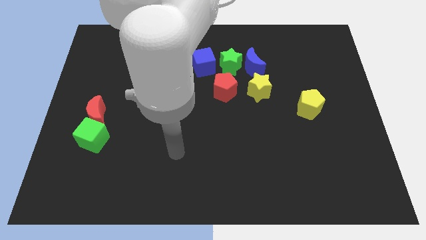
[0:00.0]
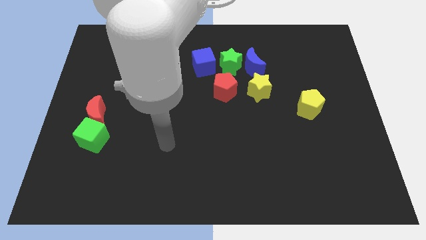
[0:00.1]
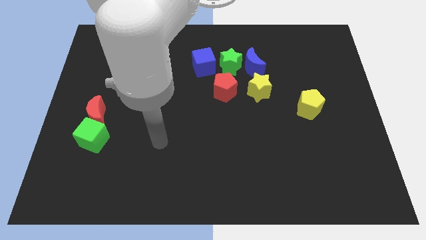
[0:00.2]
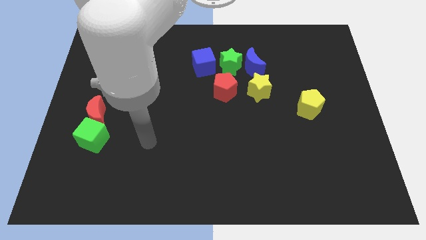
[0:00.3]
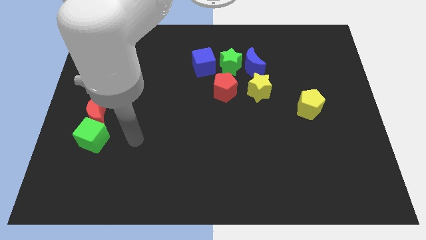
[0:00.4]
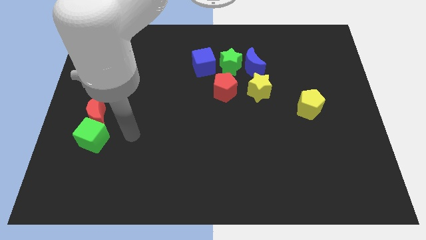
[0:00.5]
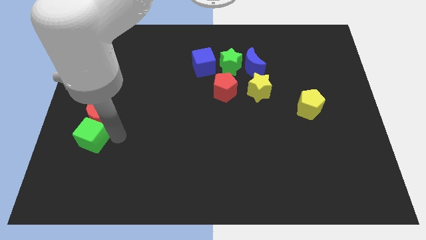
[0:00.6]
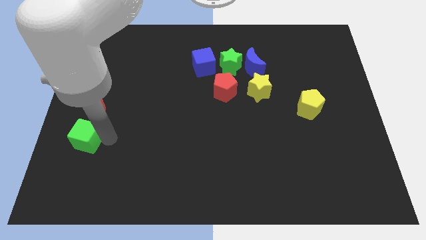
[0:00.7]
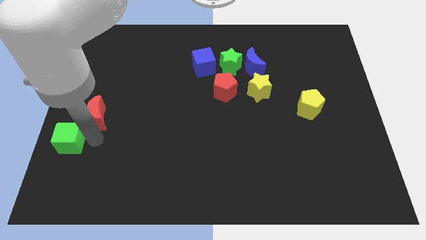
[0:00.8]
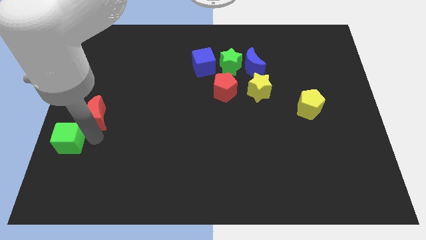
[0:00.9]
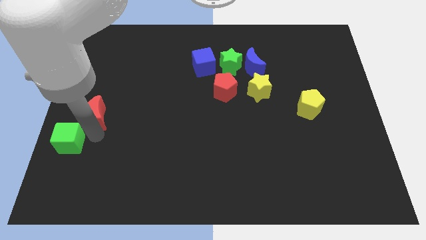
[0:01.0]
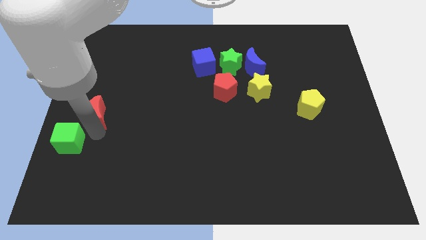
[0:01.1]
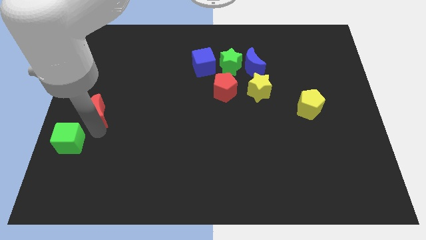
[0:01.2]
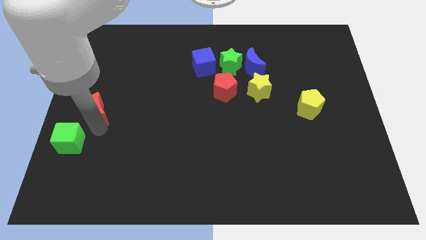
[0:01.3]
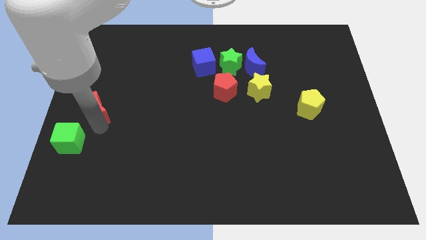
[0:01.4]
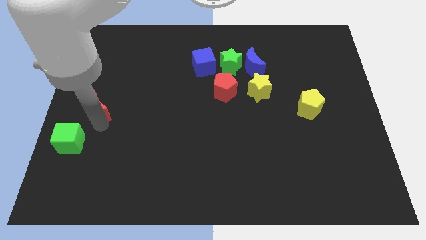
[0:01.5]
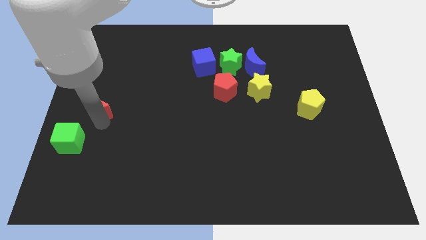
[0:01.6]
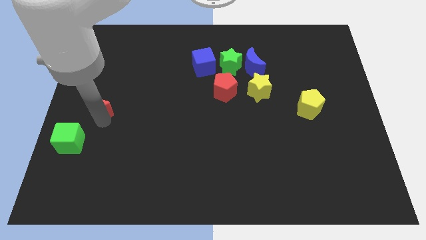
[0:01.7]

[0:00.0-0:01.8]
pull the red moon apart from the green cube

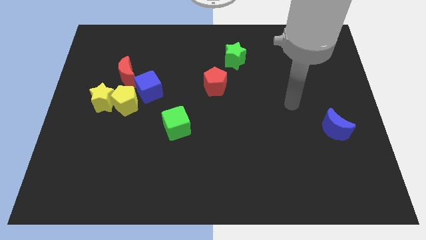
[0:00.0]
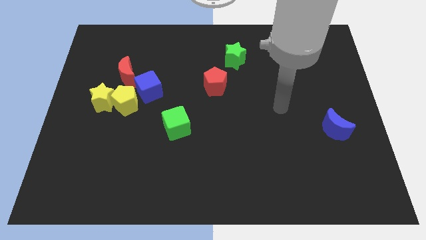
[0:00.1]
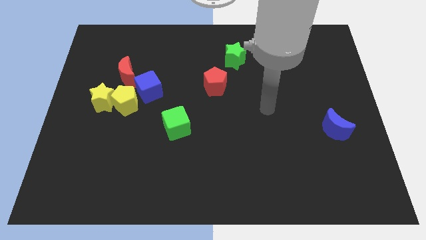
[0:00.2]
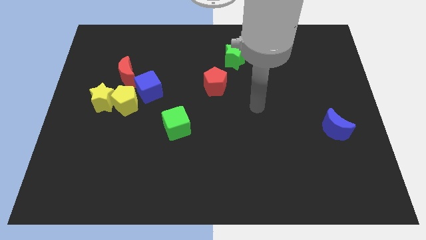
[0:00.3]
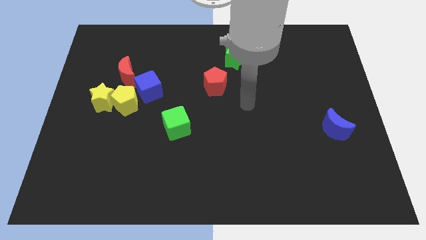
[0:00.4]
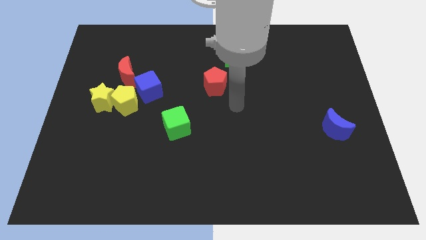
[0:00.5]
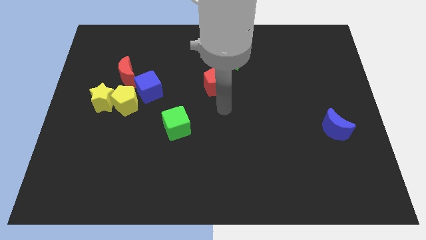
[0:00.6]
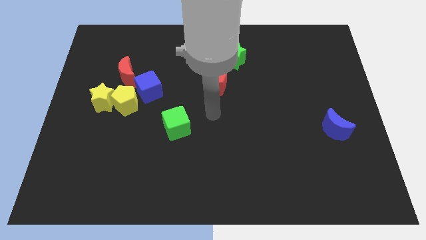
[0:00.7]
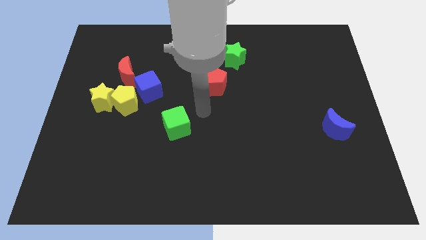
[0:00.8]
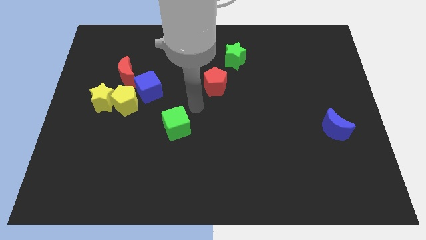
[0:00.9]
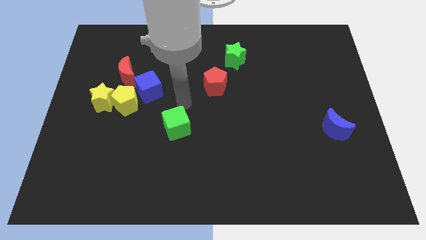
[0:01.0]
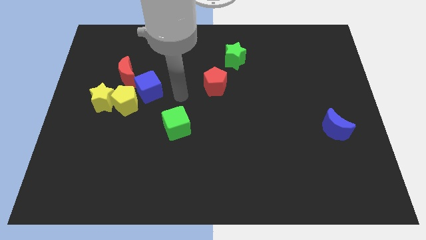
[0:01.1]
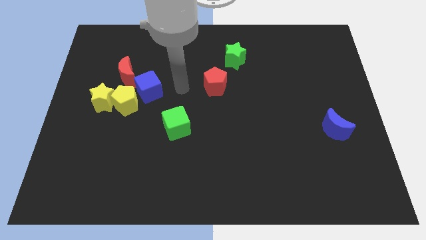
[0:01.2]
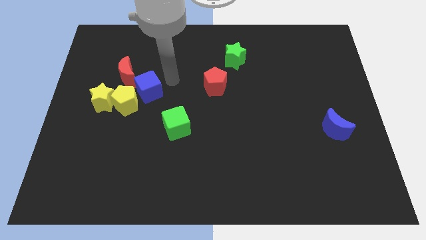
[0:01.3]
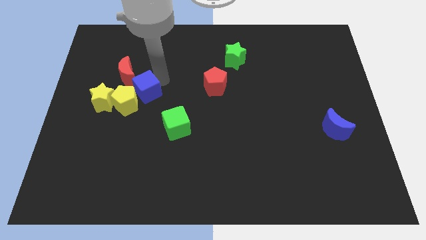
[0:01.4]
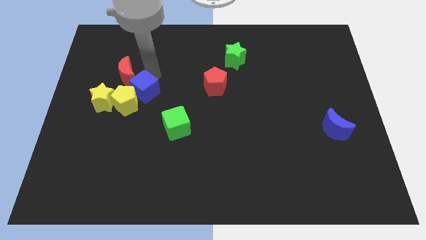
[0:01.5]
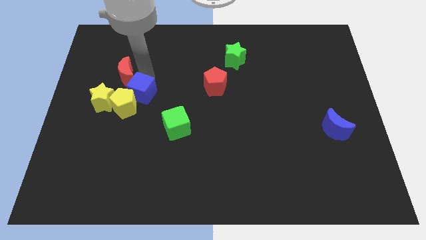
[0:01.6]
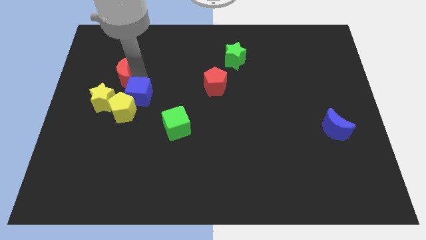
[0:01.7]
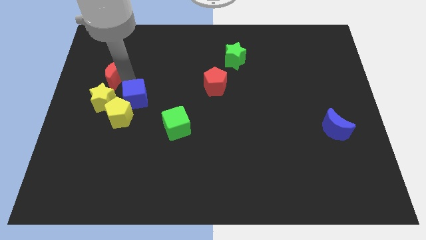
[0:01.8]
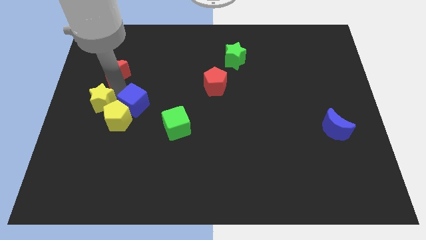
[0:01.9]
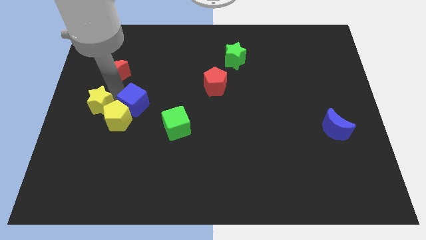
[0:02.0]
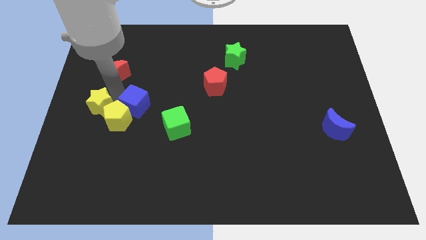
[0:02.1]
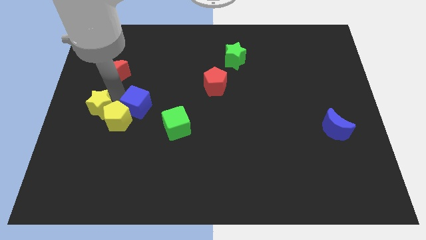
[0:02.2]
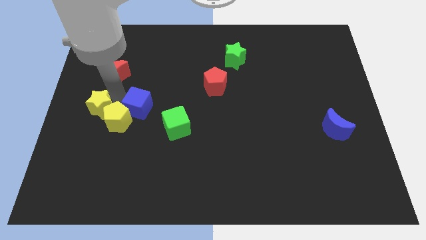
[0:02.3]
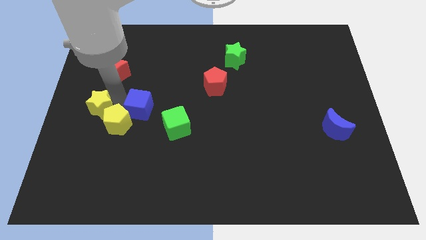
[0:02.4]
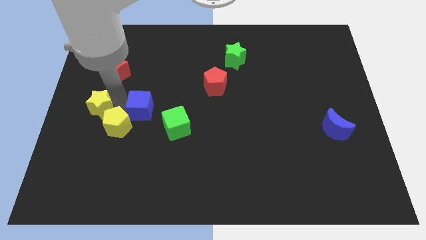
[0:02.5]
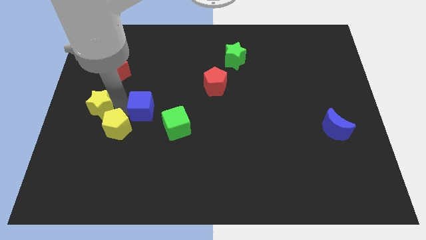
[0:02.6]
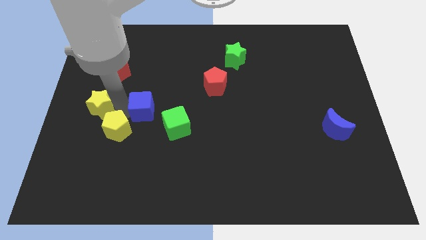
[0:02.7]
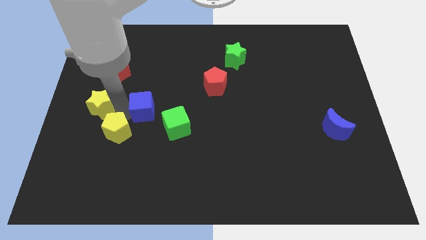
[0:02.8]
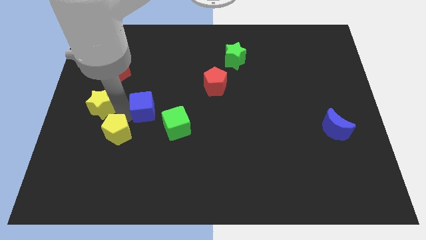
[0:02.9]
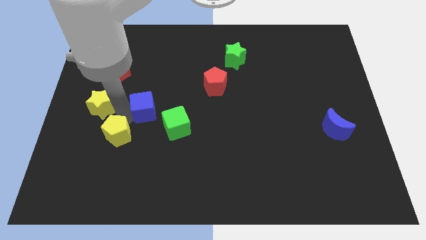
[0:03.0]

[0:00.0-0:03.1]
pull the yellow pentagon apart from the yellow star, blue cube, and red moon

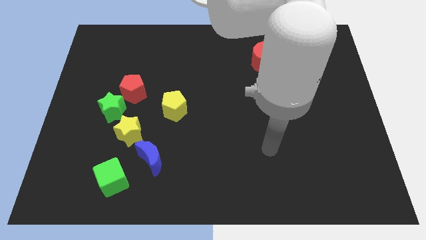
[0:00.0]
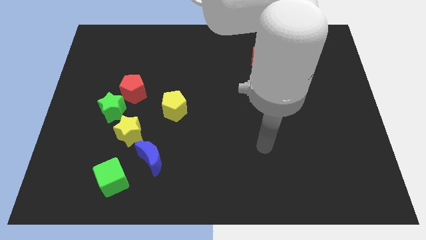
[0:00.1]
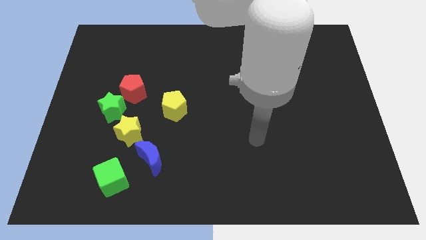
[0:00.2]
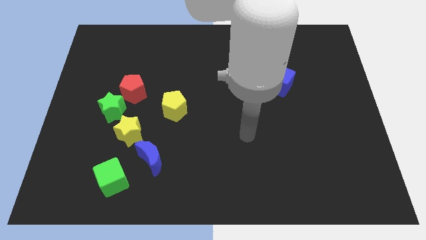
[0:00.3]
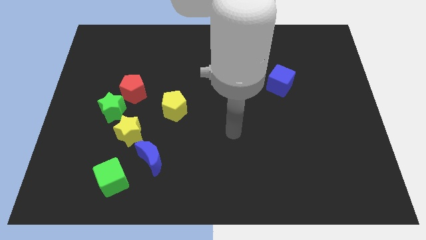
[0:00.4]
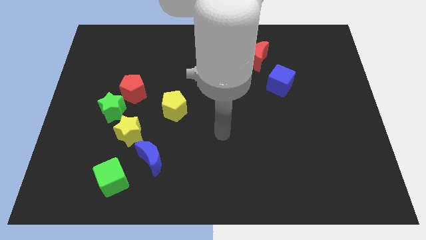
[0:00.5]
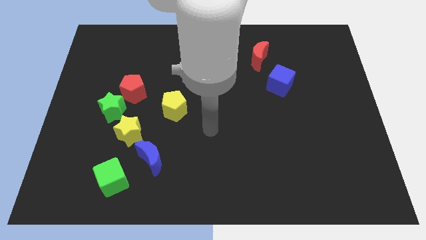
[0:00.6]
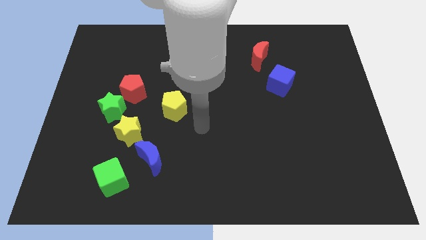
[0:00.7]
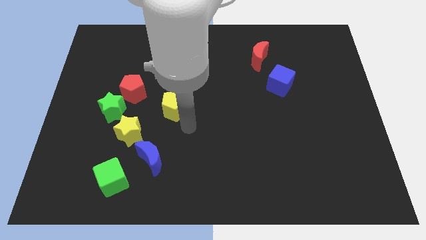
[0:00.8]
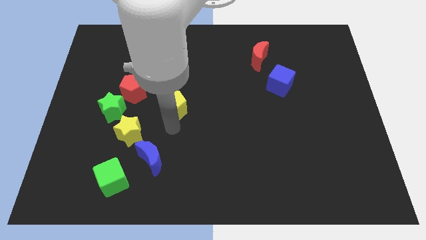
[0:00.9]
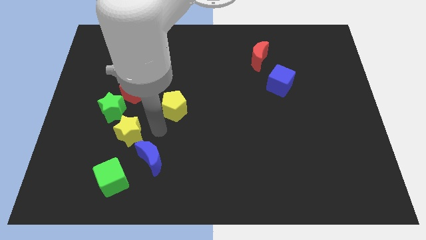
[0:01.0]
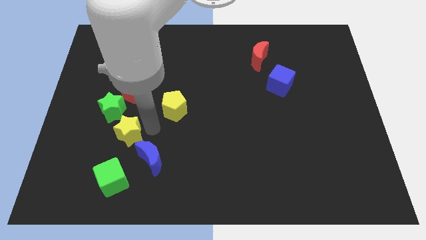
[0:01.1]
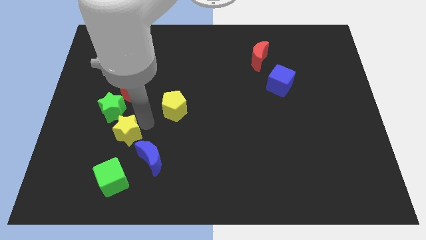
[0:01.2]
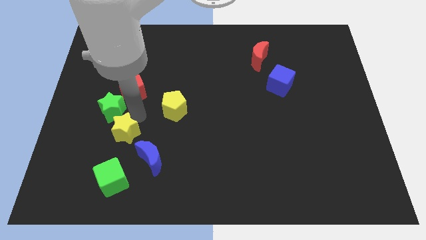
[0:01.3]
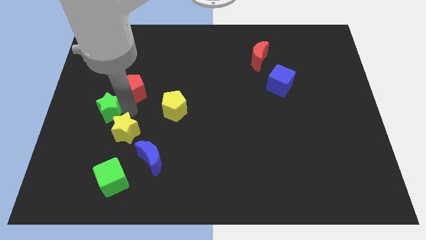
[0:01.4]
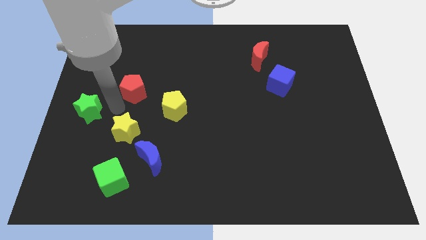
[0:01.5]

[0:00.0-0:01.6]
separate the red pentagon from the green star

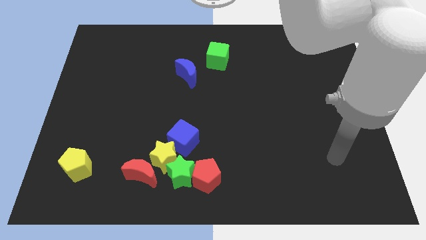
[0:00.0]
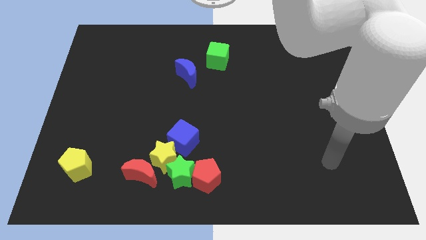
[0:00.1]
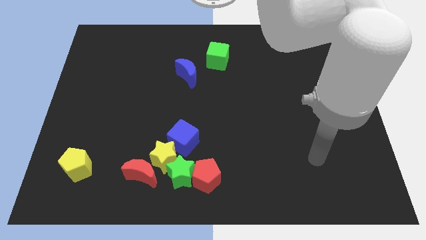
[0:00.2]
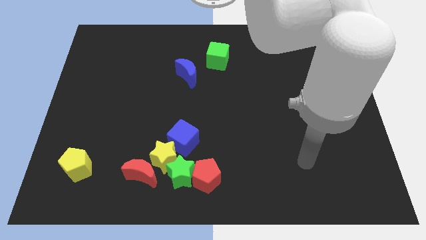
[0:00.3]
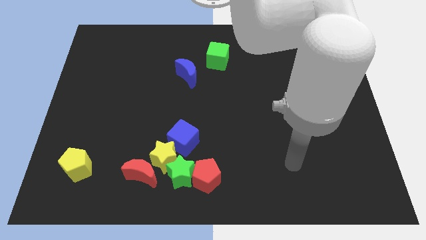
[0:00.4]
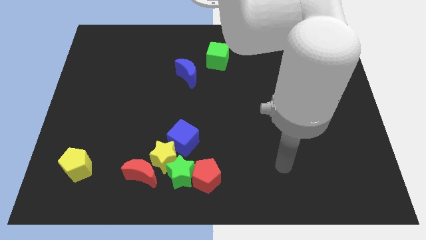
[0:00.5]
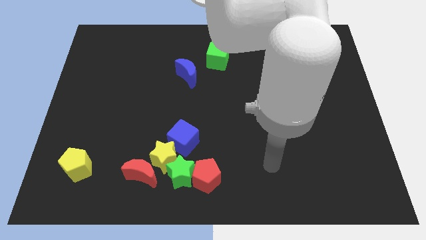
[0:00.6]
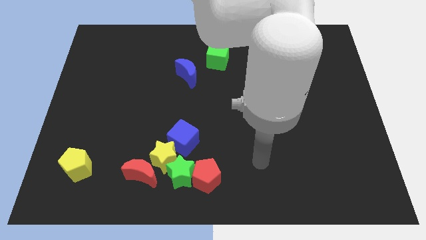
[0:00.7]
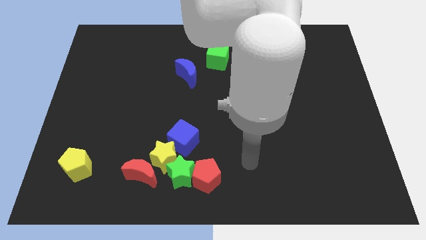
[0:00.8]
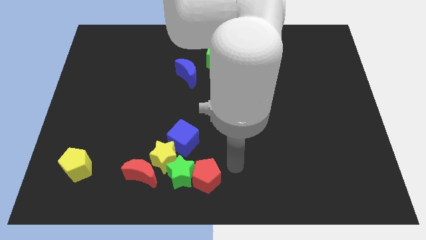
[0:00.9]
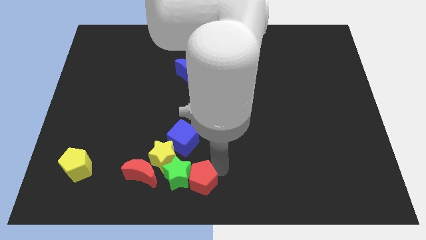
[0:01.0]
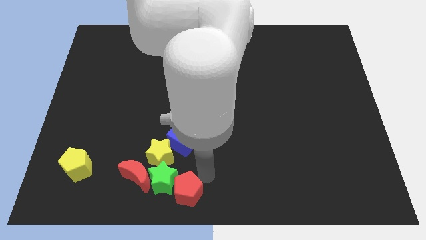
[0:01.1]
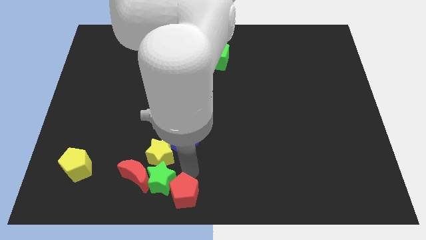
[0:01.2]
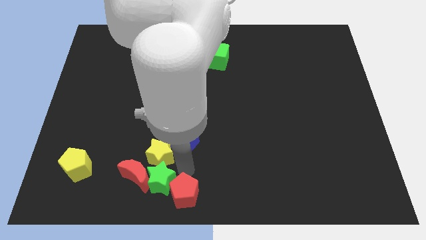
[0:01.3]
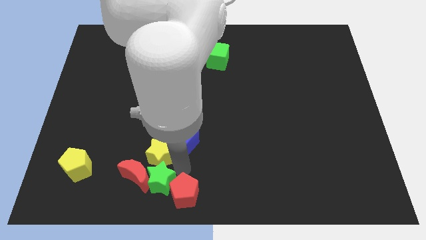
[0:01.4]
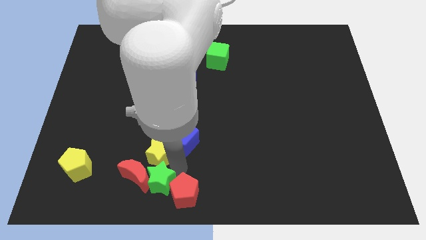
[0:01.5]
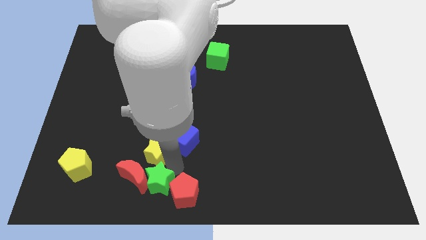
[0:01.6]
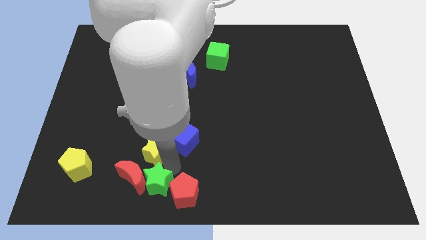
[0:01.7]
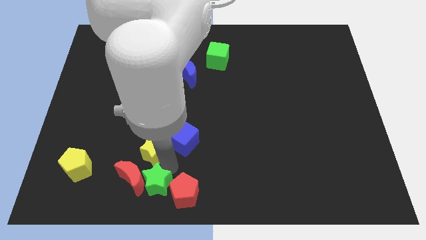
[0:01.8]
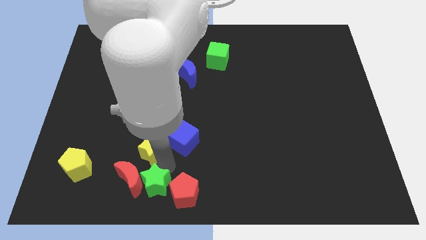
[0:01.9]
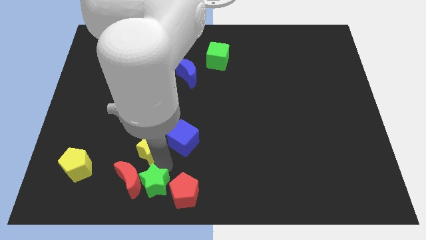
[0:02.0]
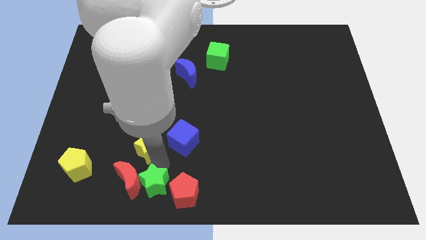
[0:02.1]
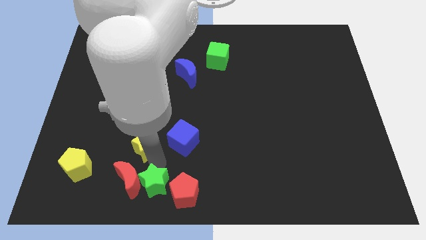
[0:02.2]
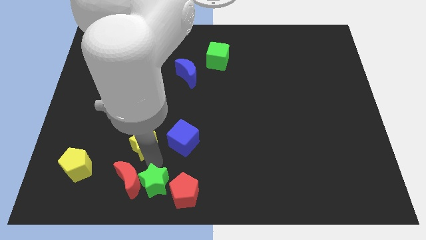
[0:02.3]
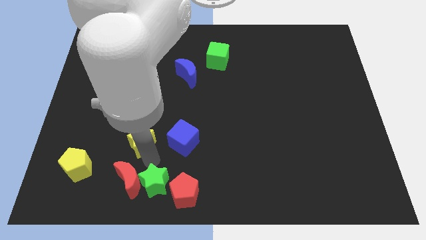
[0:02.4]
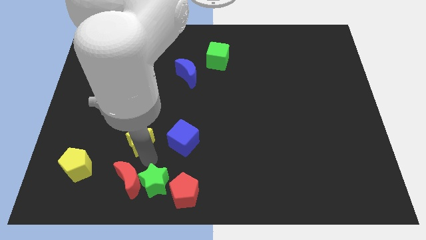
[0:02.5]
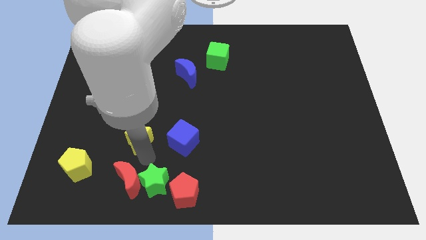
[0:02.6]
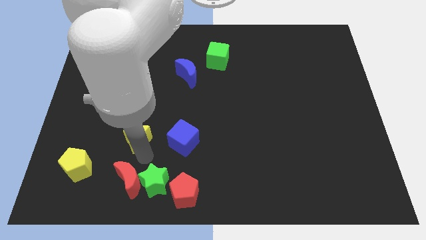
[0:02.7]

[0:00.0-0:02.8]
pull the yellow star apart from the group

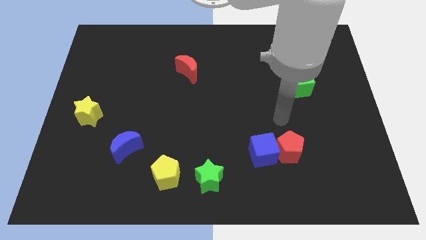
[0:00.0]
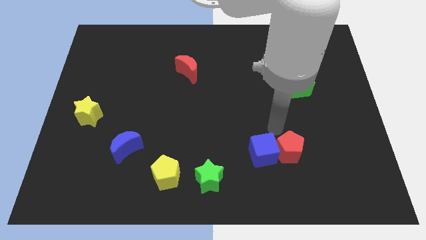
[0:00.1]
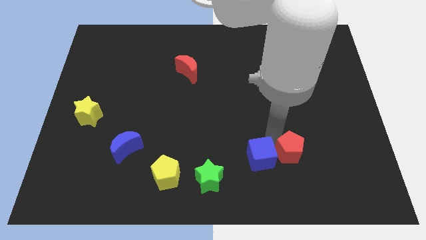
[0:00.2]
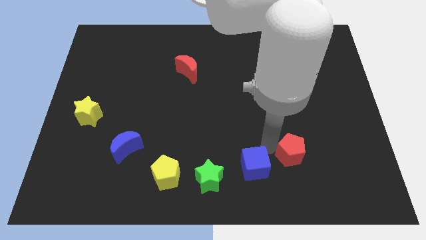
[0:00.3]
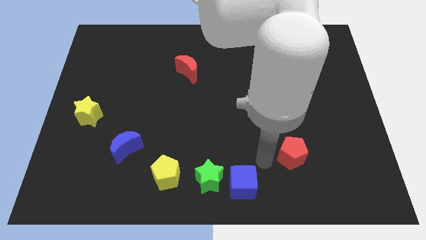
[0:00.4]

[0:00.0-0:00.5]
pull the red pentagon apart from the blue cube
